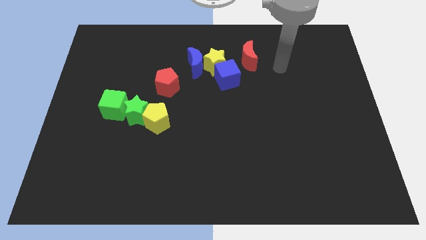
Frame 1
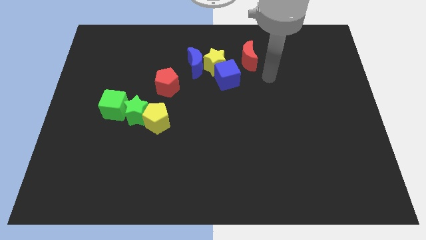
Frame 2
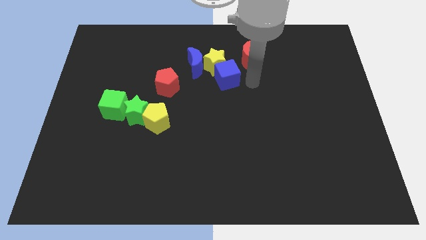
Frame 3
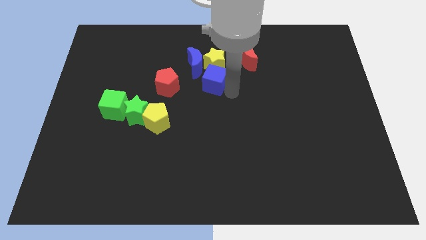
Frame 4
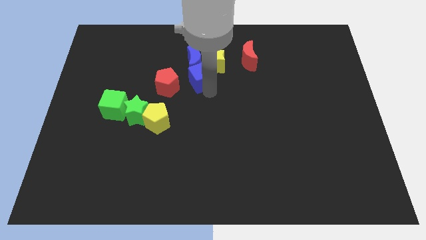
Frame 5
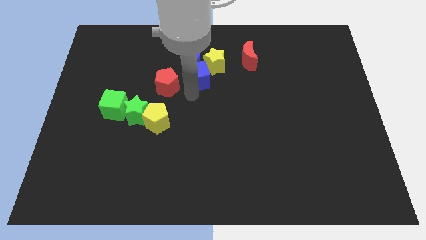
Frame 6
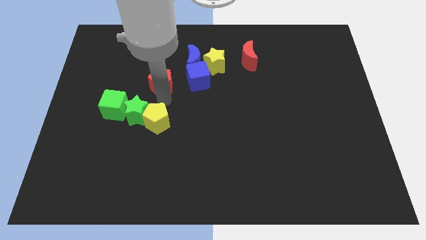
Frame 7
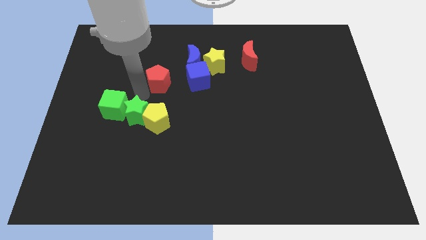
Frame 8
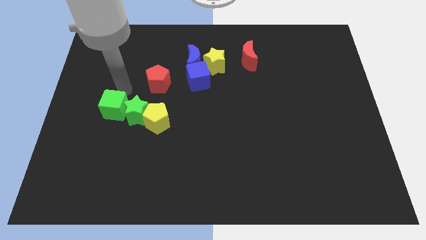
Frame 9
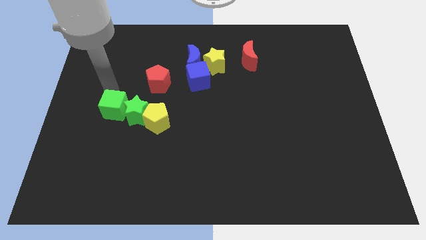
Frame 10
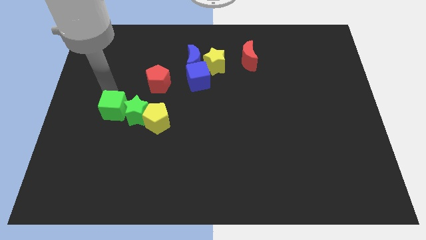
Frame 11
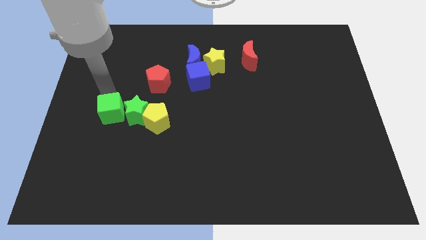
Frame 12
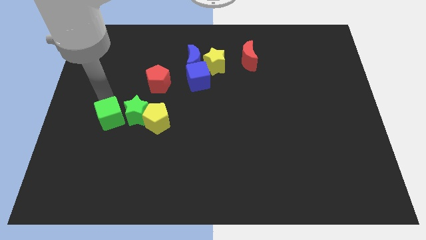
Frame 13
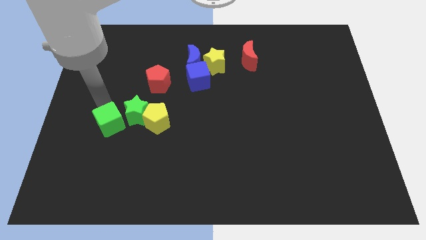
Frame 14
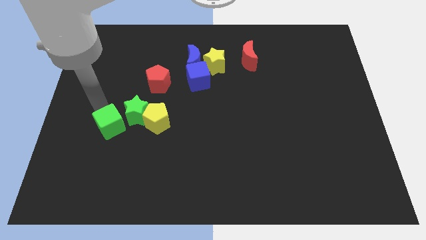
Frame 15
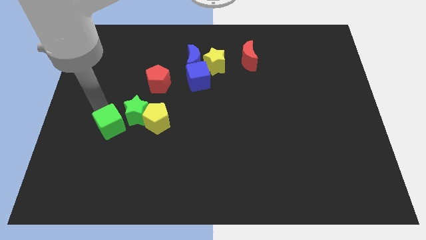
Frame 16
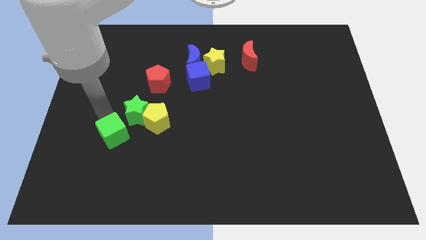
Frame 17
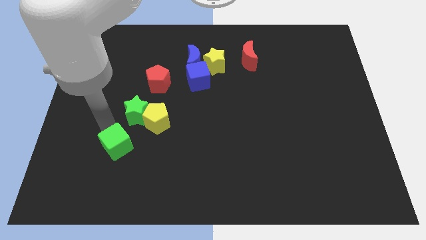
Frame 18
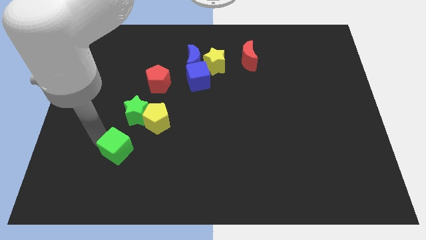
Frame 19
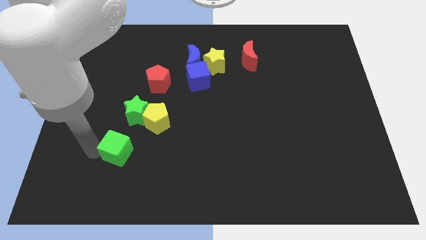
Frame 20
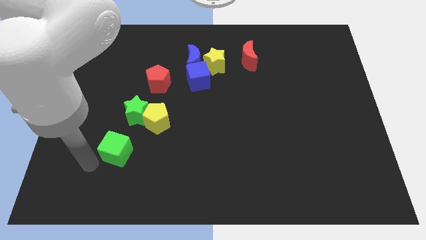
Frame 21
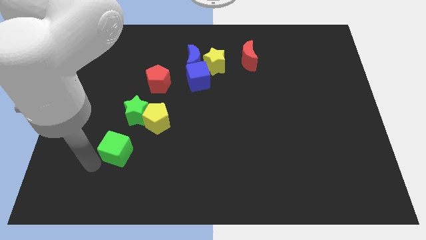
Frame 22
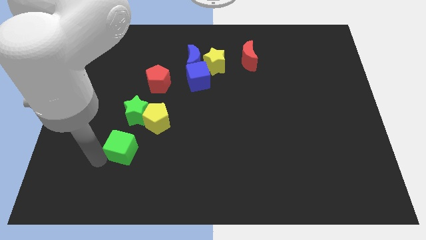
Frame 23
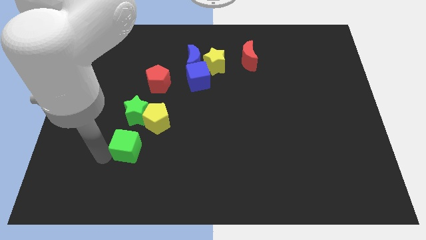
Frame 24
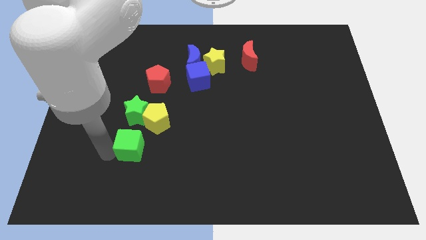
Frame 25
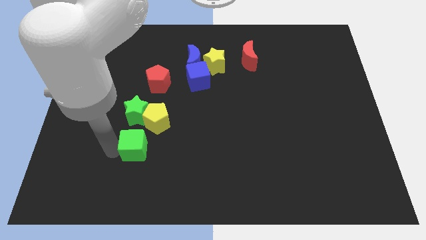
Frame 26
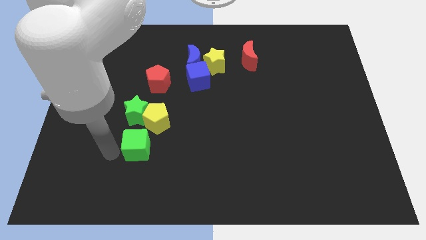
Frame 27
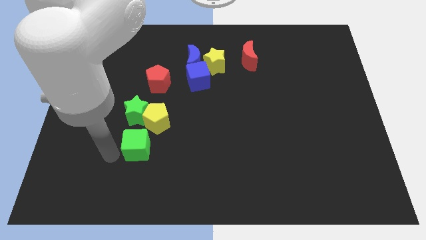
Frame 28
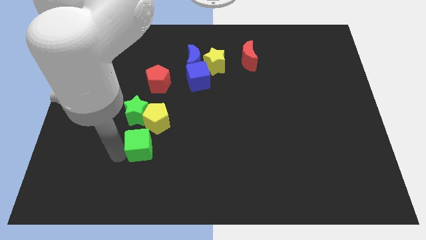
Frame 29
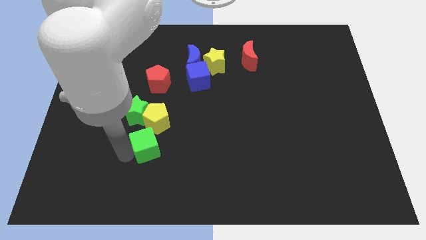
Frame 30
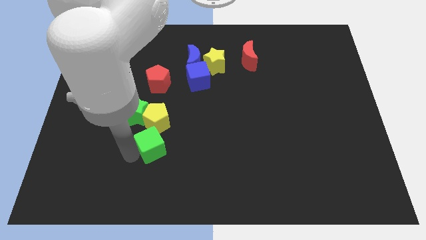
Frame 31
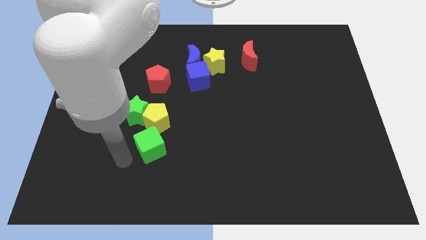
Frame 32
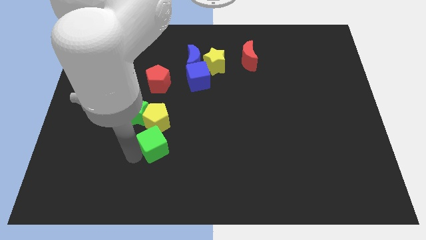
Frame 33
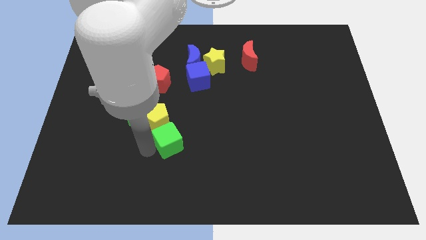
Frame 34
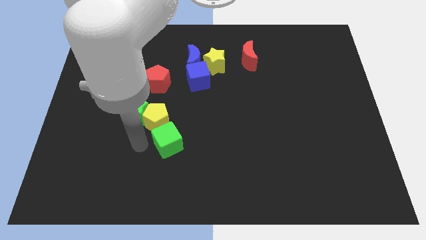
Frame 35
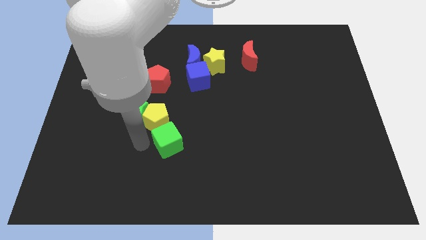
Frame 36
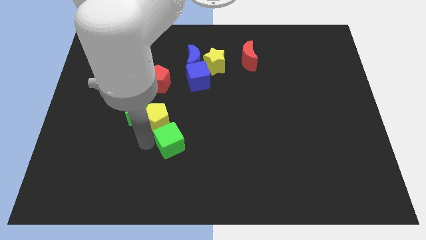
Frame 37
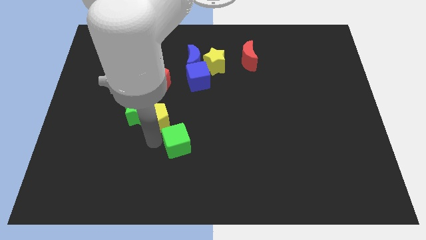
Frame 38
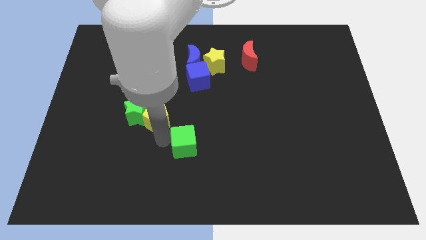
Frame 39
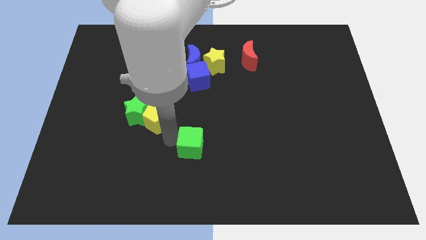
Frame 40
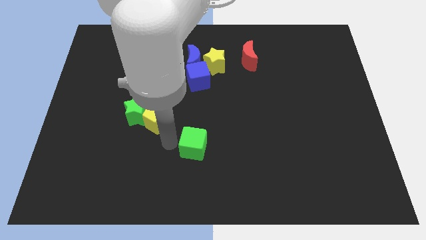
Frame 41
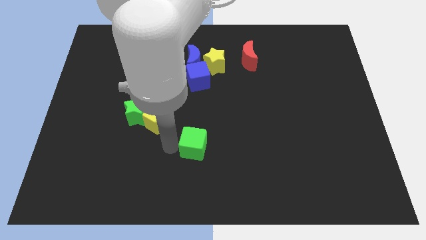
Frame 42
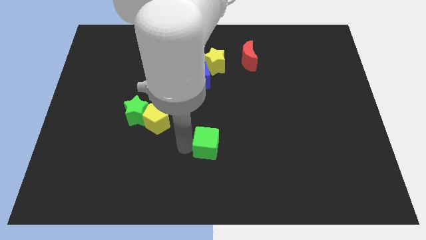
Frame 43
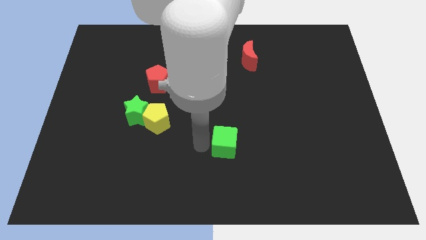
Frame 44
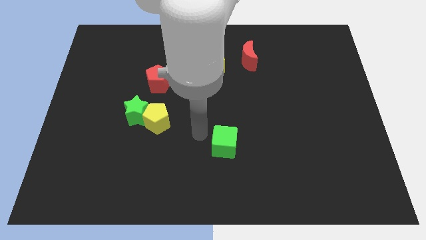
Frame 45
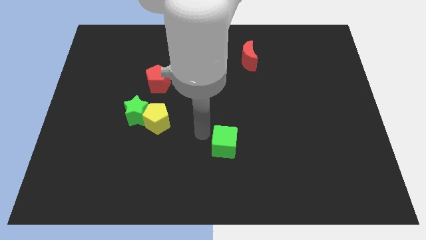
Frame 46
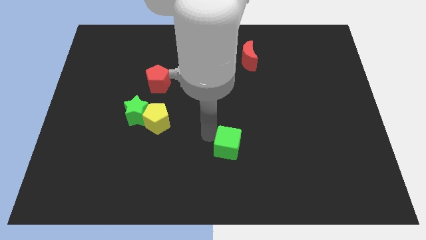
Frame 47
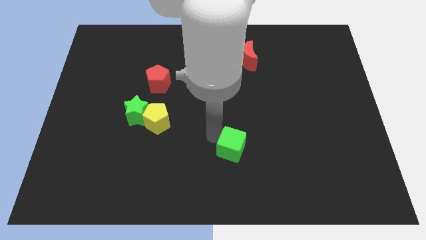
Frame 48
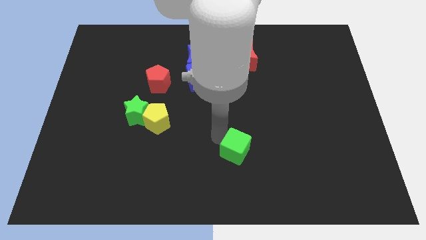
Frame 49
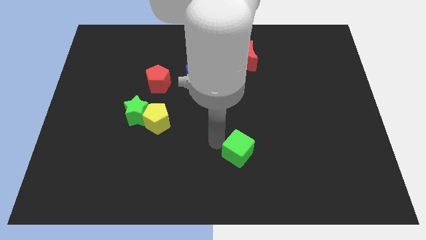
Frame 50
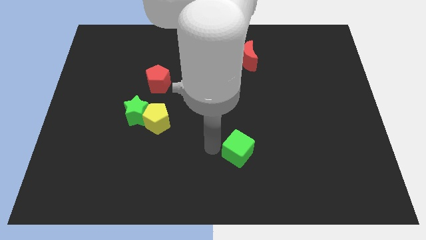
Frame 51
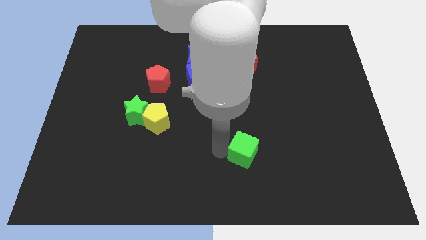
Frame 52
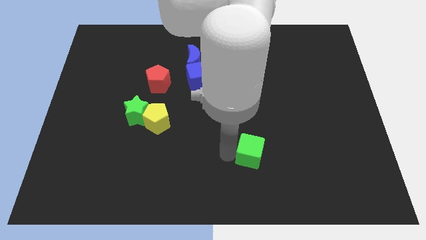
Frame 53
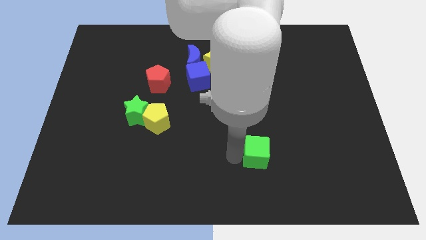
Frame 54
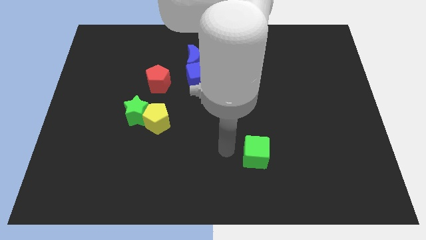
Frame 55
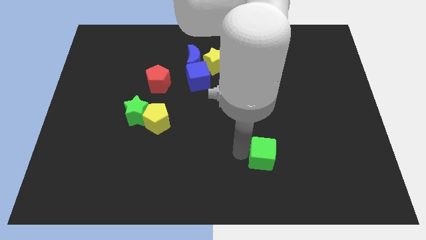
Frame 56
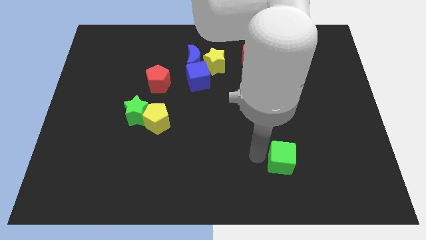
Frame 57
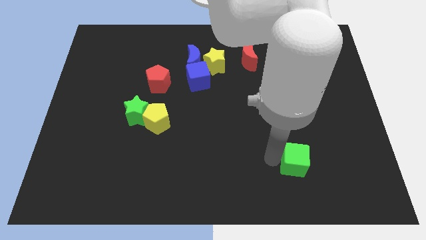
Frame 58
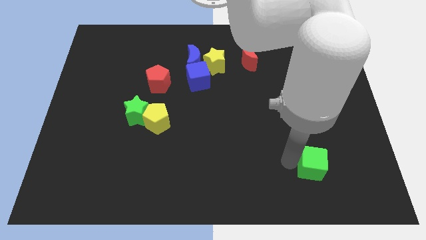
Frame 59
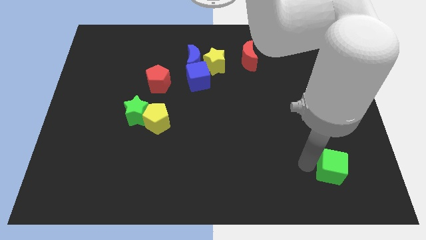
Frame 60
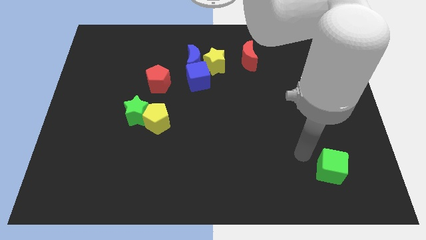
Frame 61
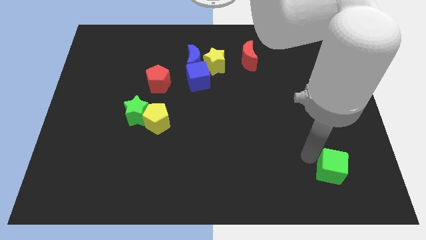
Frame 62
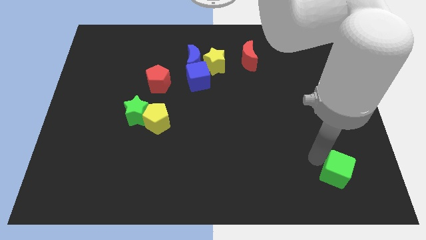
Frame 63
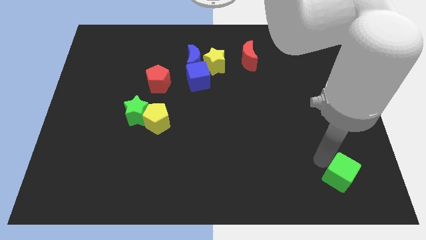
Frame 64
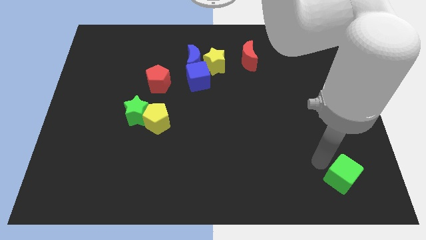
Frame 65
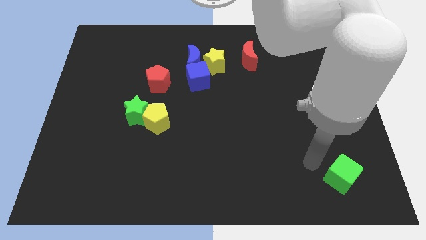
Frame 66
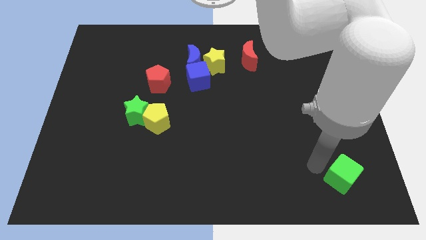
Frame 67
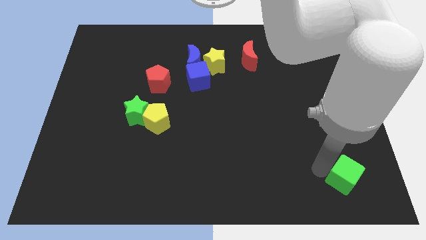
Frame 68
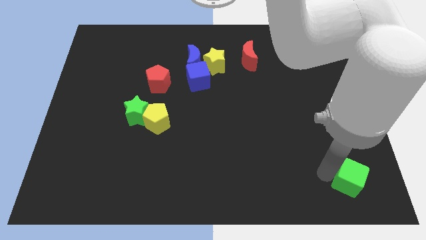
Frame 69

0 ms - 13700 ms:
slide the green cube to the bottom right corner
